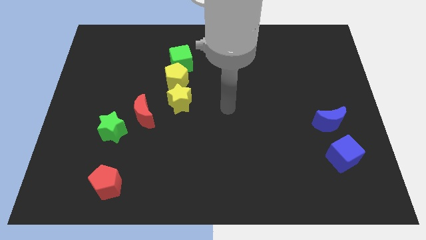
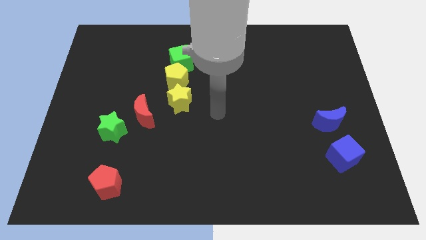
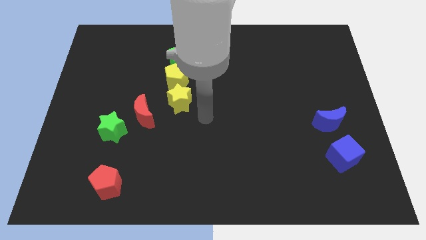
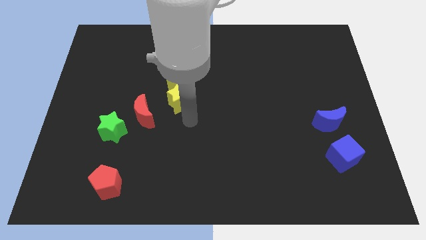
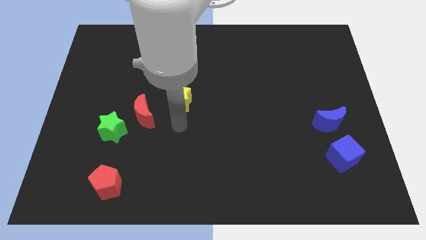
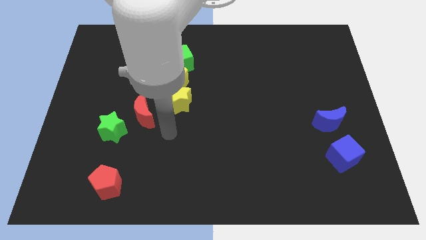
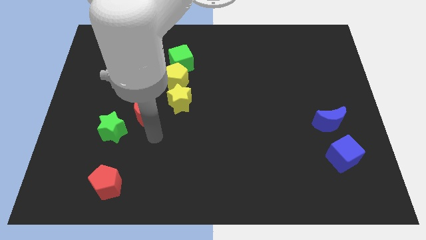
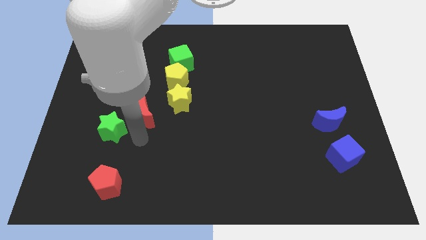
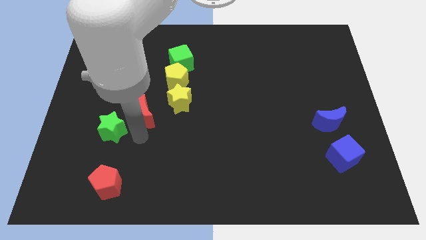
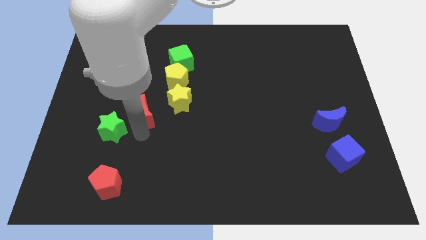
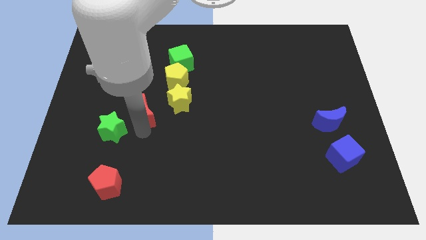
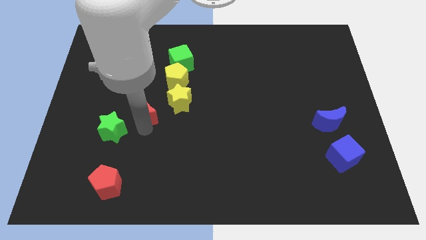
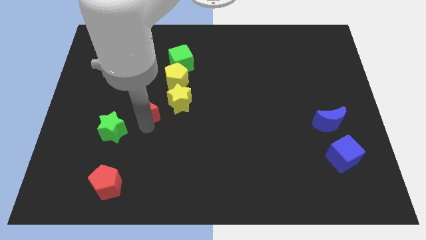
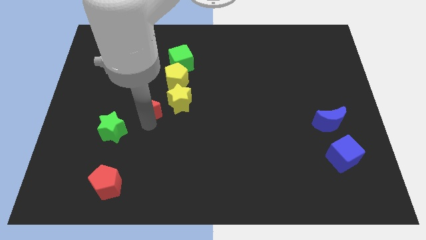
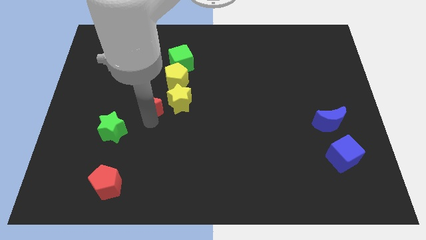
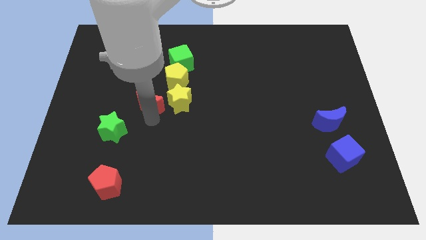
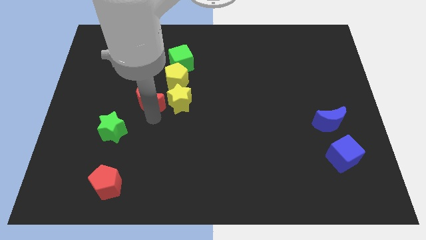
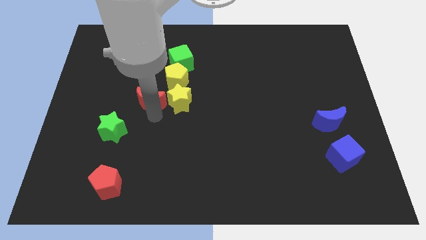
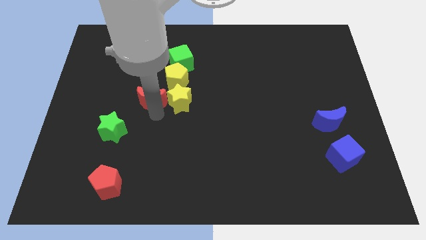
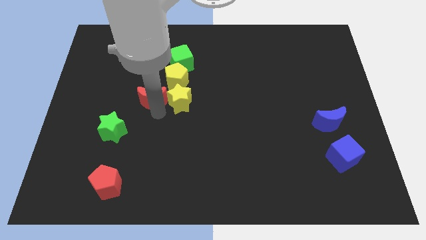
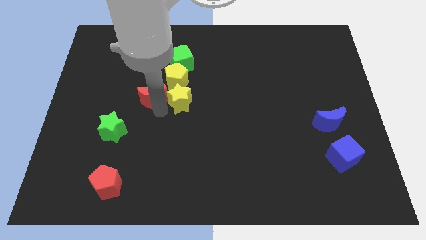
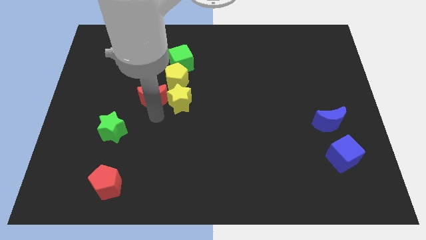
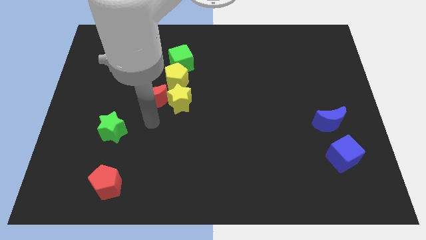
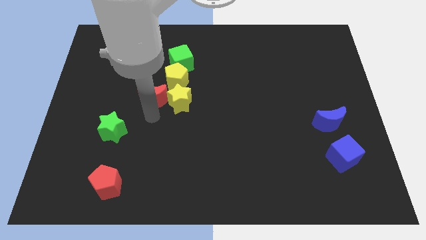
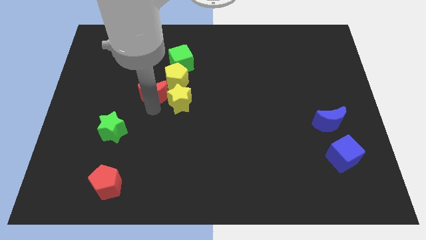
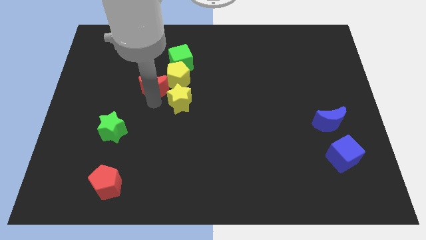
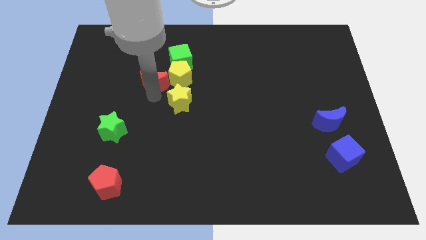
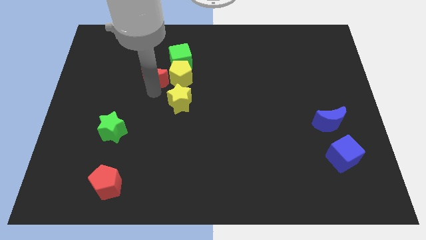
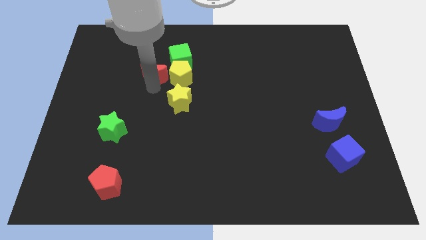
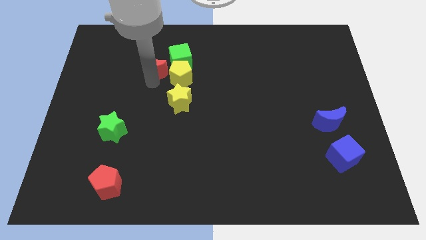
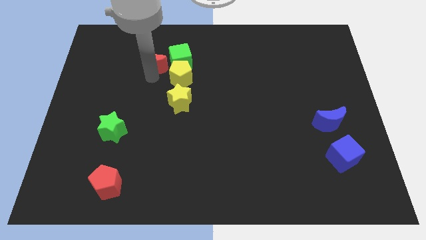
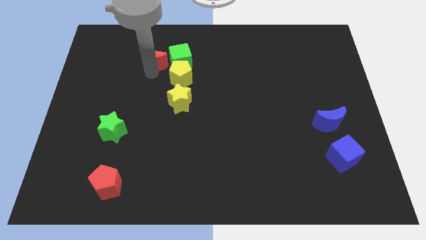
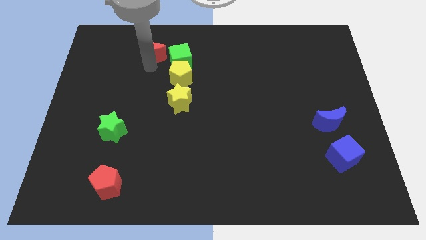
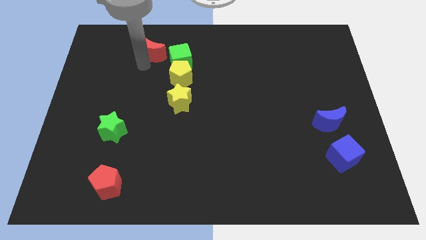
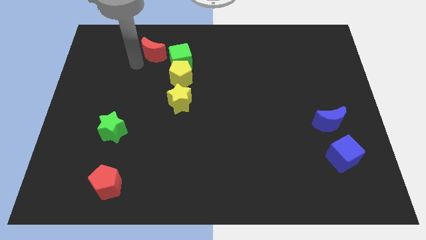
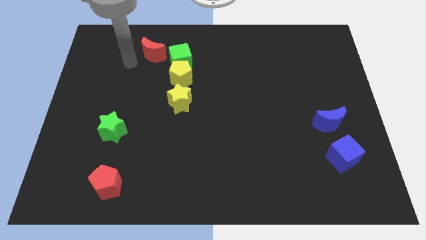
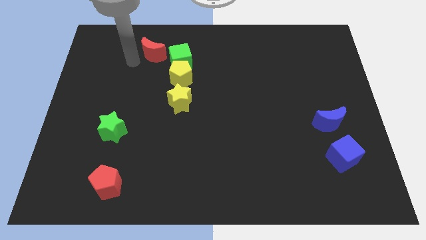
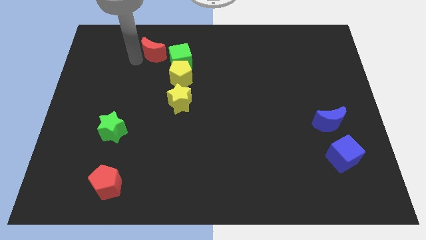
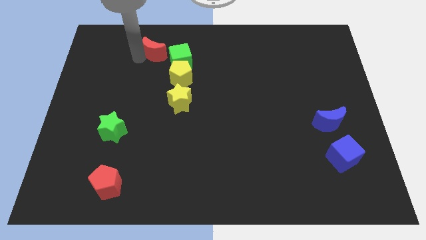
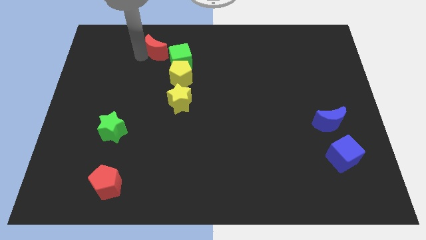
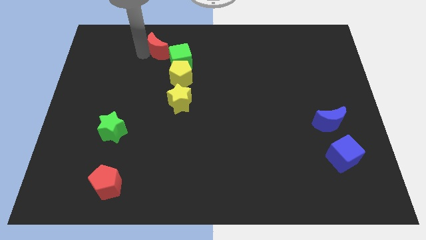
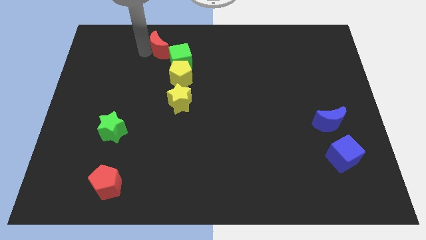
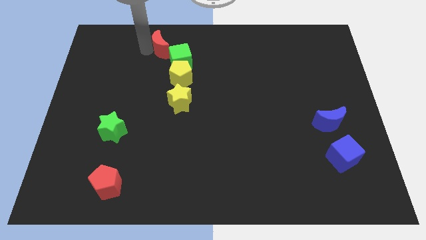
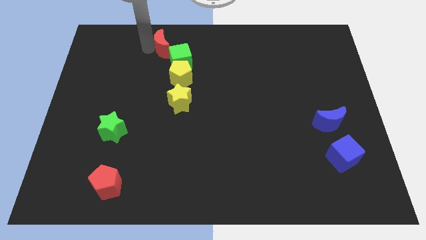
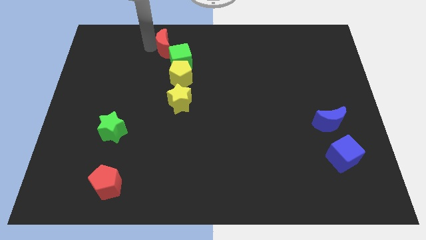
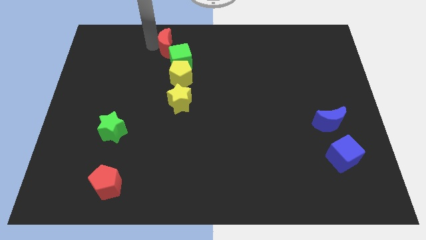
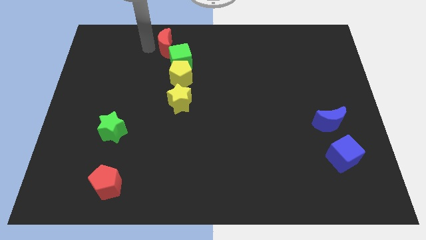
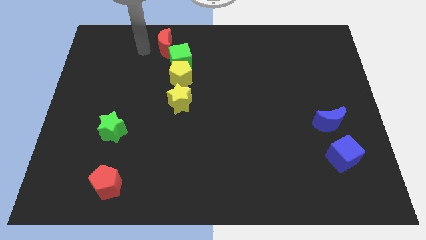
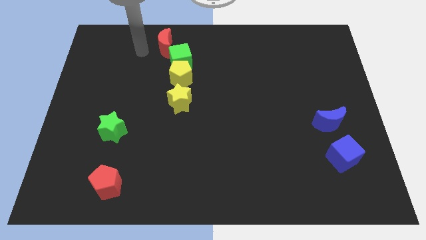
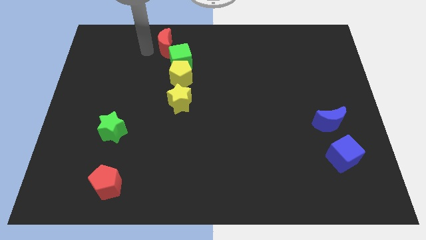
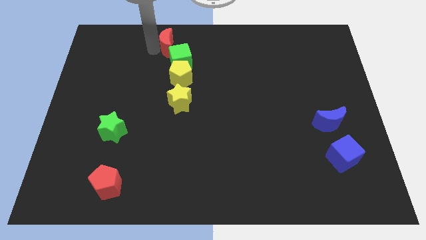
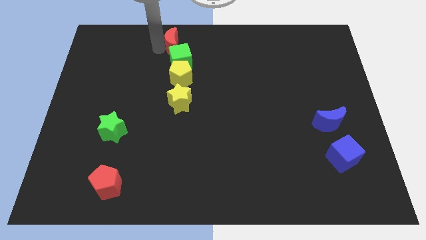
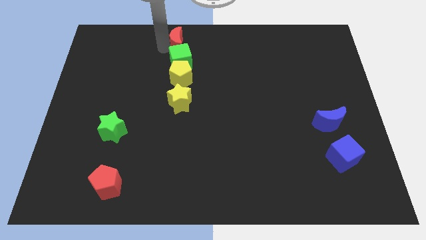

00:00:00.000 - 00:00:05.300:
slide the red moon to the top

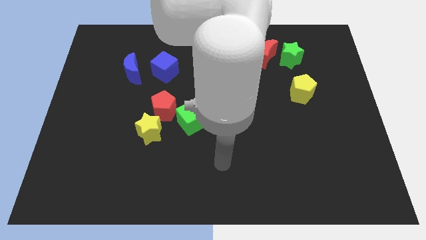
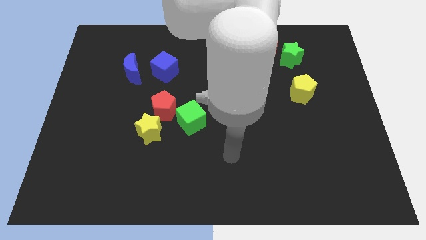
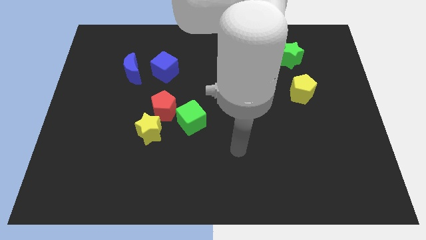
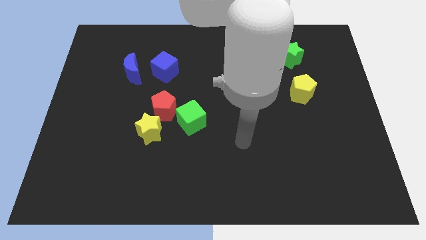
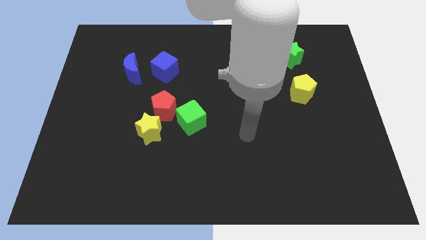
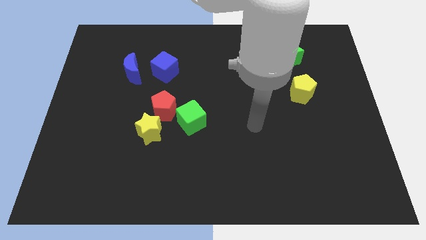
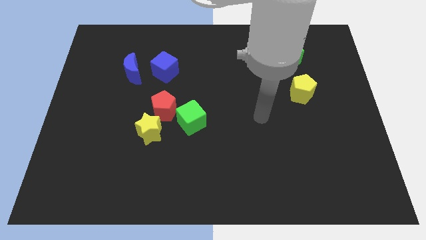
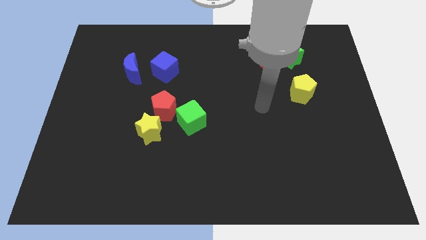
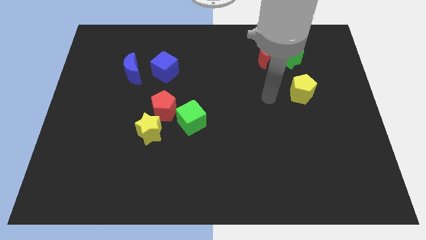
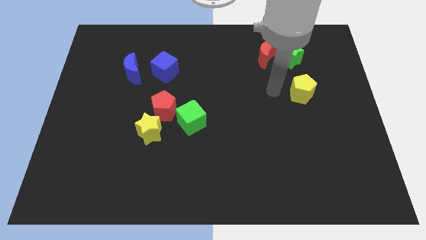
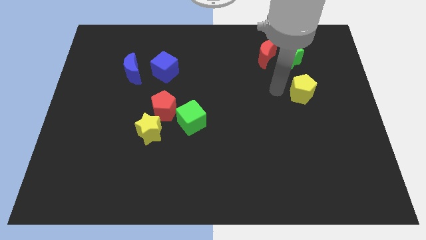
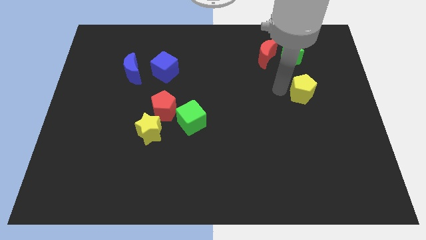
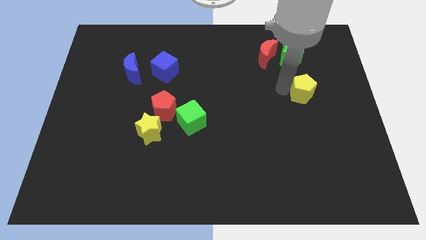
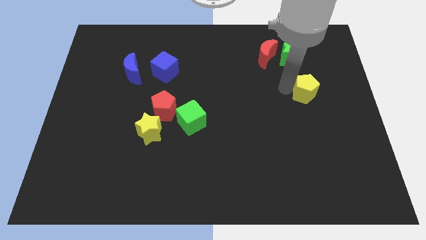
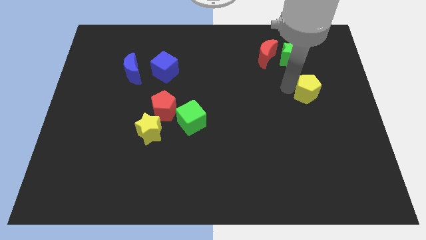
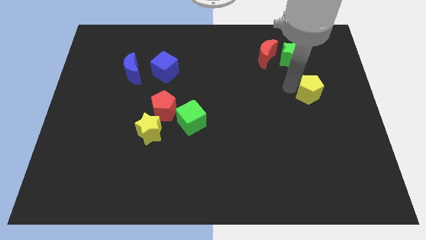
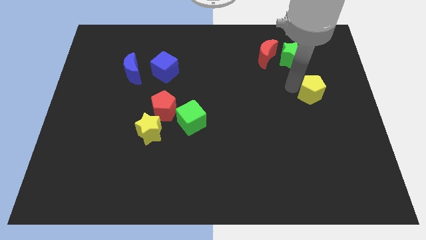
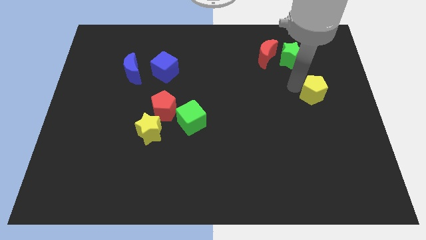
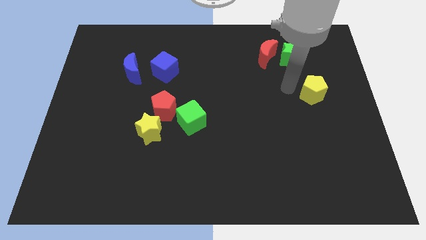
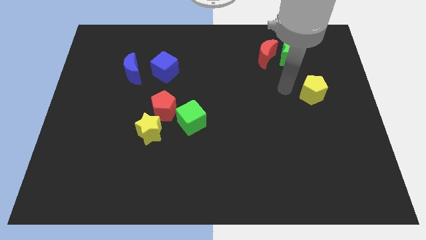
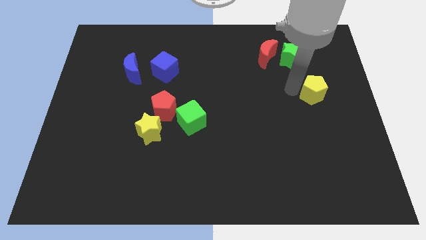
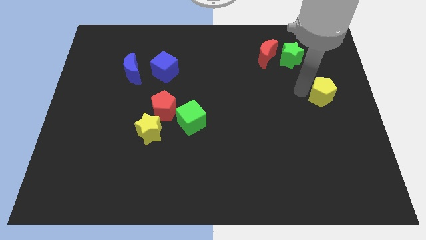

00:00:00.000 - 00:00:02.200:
move the yellow pentagon to the right side of the board

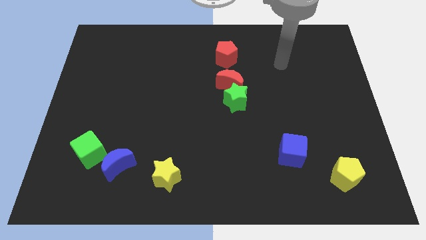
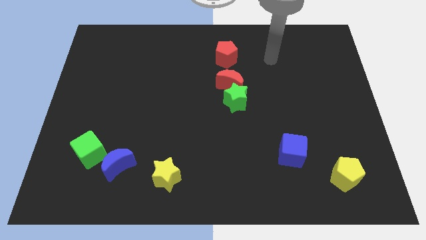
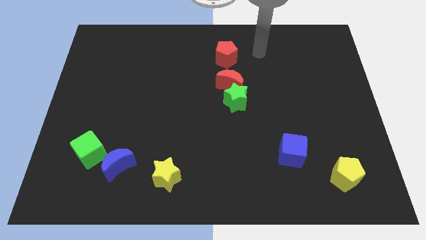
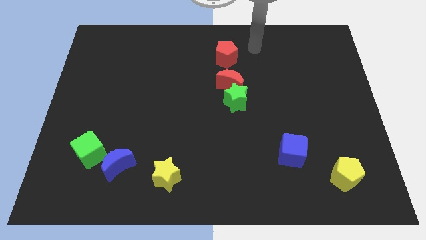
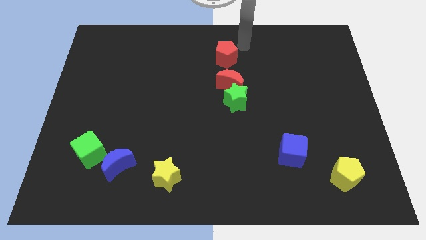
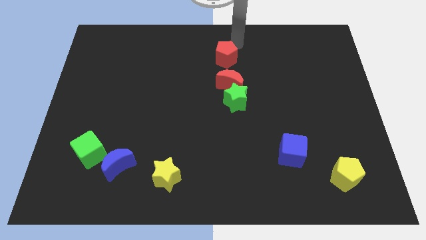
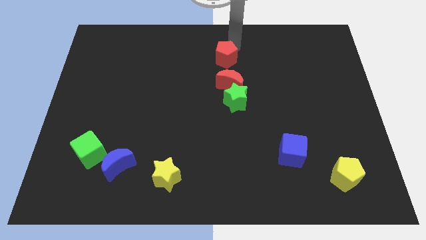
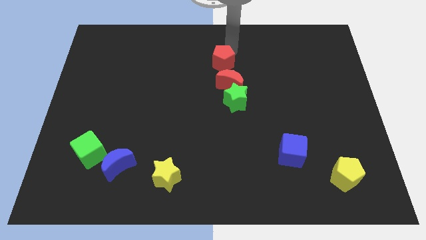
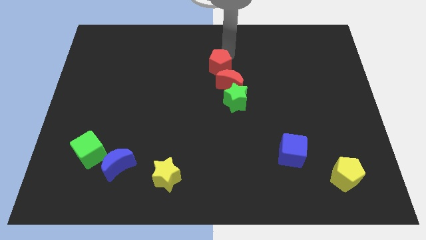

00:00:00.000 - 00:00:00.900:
push the red pentagon to the middle
